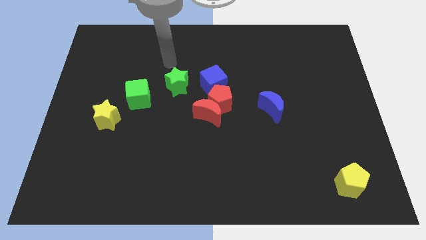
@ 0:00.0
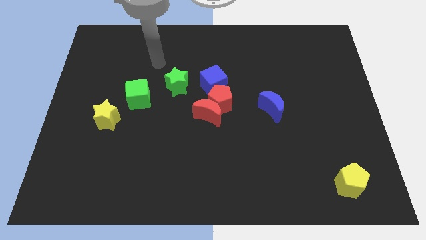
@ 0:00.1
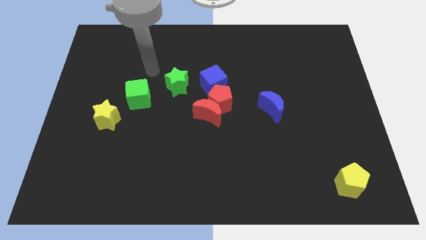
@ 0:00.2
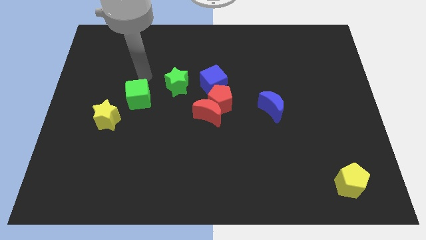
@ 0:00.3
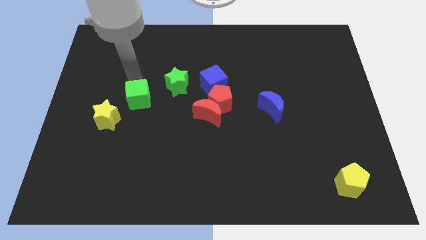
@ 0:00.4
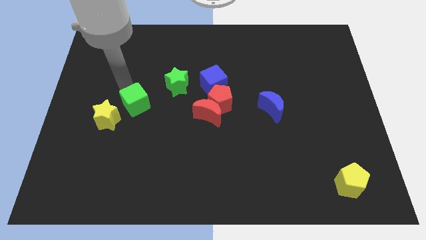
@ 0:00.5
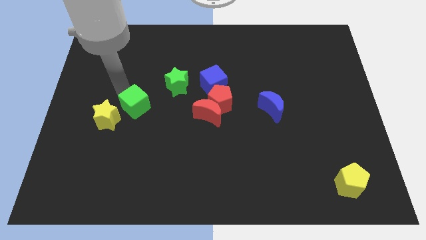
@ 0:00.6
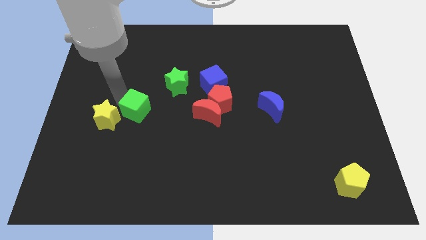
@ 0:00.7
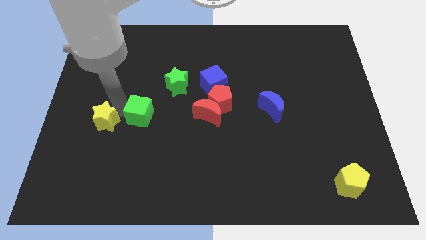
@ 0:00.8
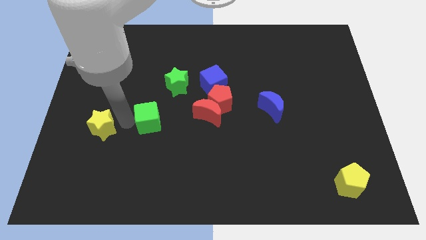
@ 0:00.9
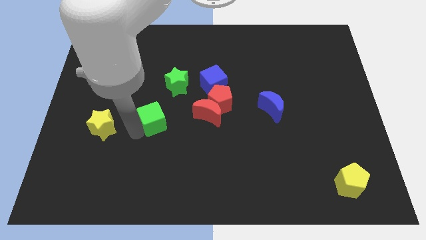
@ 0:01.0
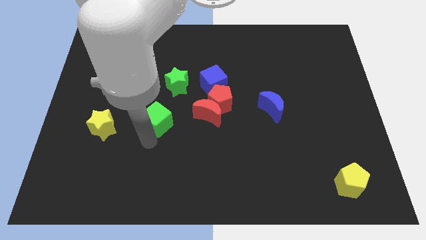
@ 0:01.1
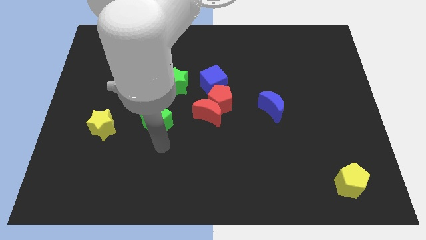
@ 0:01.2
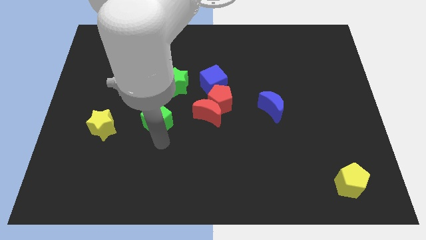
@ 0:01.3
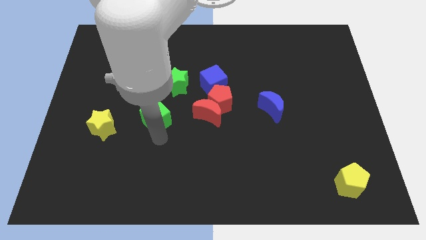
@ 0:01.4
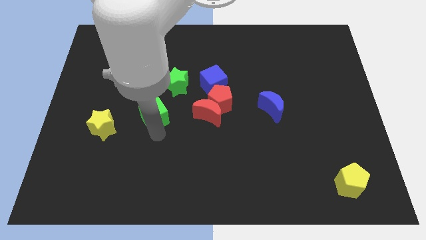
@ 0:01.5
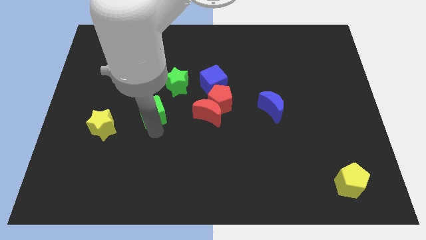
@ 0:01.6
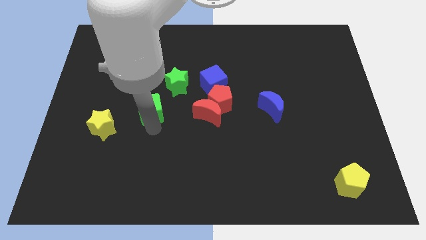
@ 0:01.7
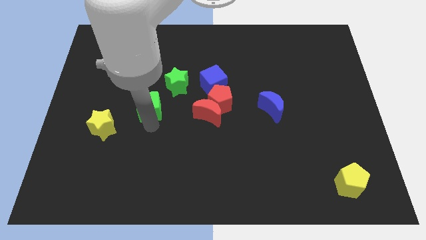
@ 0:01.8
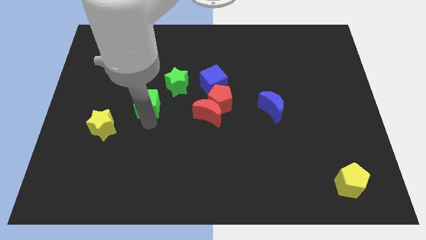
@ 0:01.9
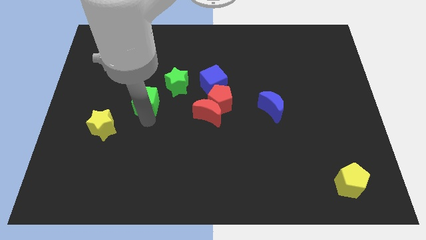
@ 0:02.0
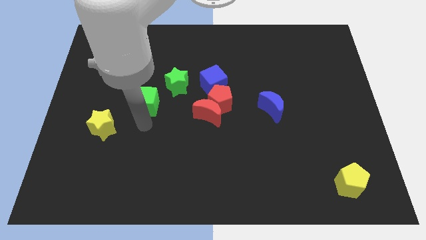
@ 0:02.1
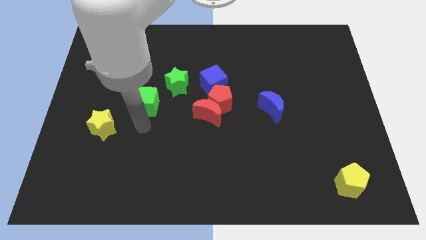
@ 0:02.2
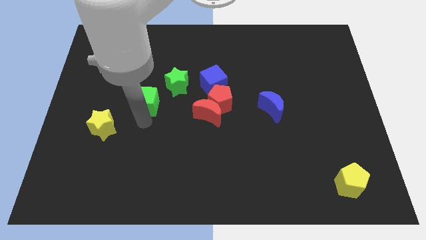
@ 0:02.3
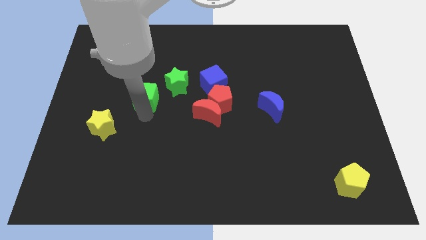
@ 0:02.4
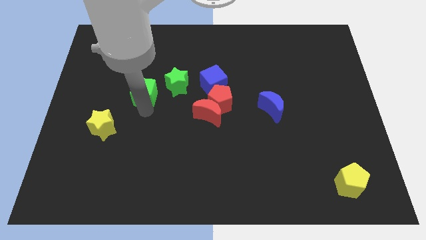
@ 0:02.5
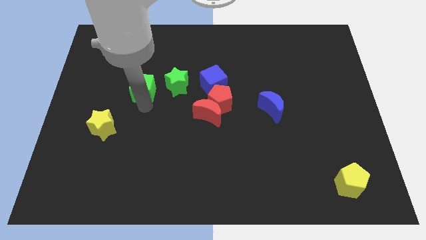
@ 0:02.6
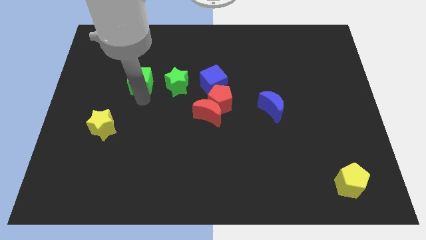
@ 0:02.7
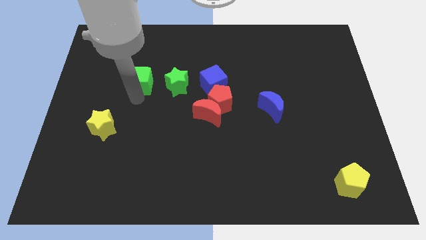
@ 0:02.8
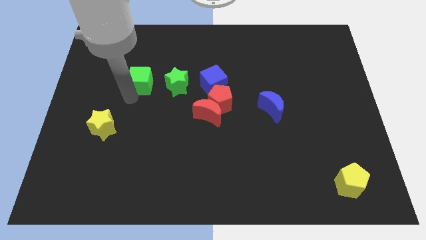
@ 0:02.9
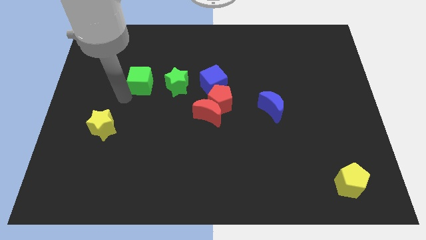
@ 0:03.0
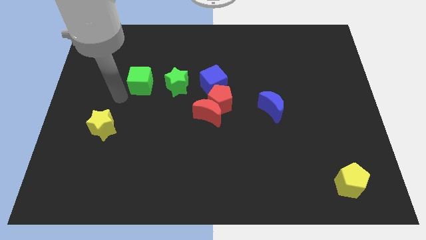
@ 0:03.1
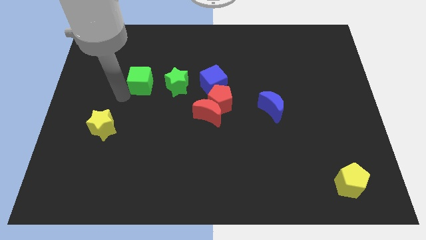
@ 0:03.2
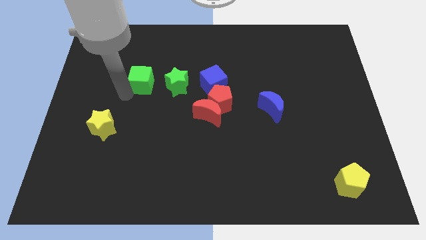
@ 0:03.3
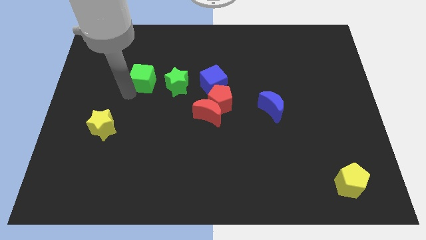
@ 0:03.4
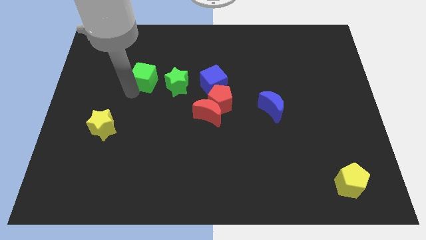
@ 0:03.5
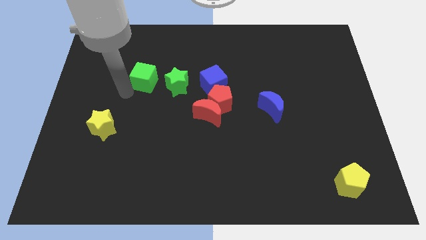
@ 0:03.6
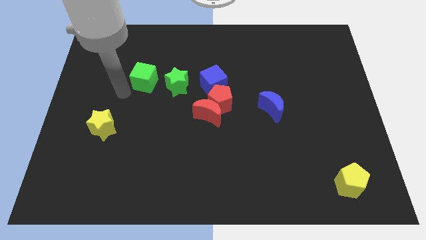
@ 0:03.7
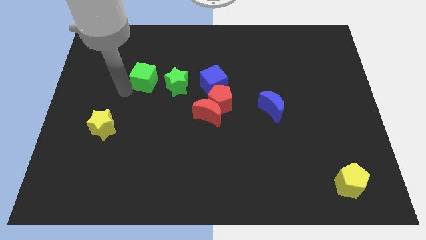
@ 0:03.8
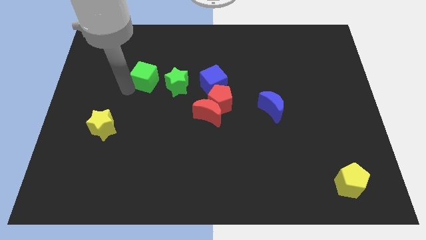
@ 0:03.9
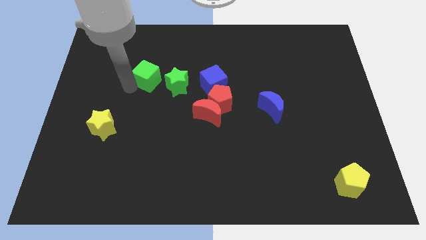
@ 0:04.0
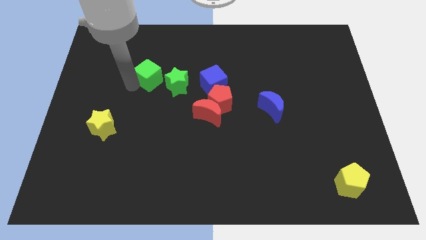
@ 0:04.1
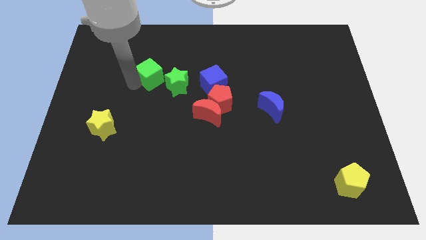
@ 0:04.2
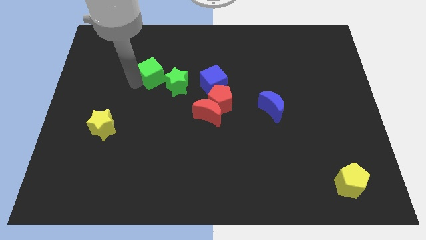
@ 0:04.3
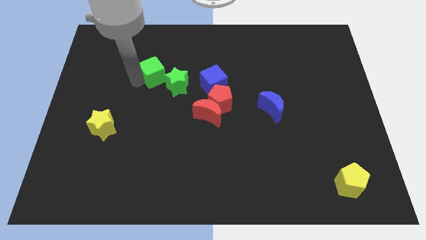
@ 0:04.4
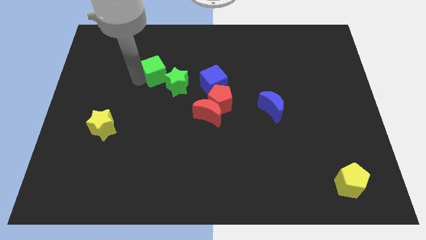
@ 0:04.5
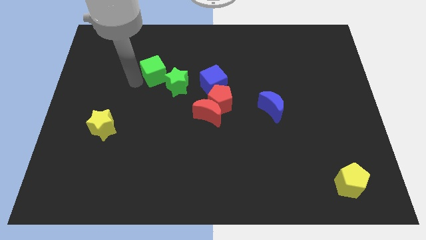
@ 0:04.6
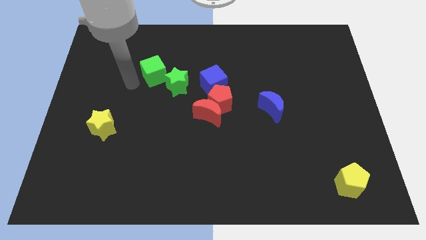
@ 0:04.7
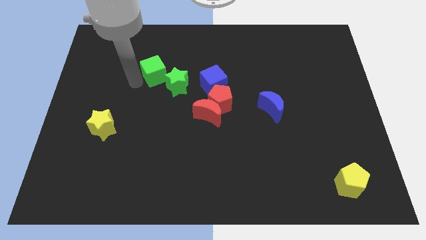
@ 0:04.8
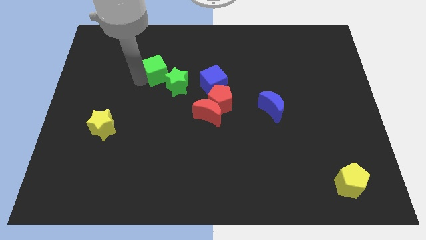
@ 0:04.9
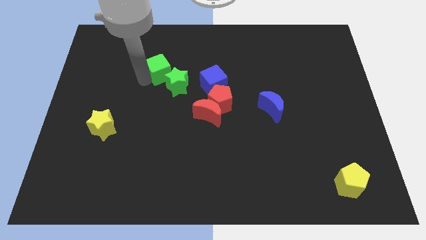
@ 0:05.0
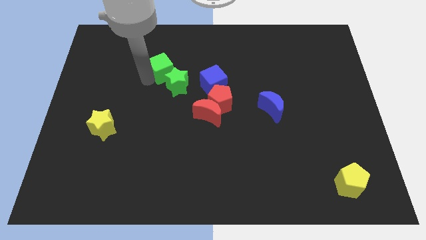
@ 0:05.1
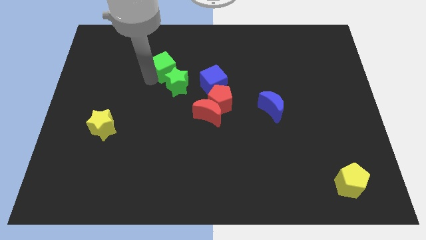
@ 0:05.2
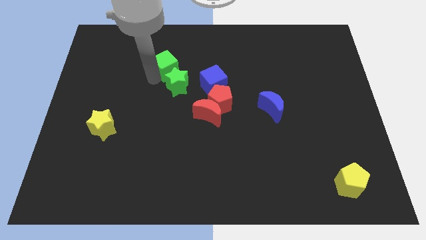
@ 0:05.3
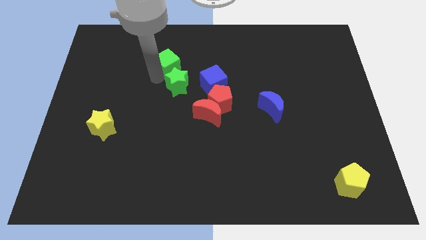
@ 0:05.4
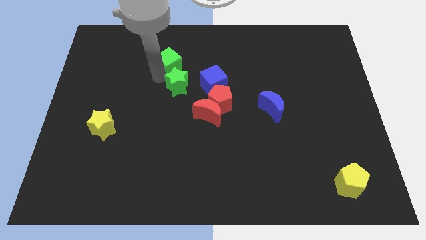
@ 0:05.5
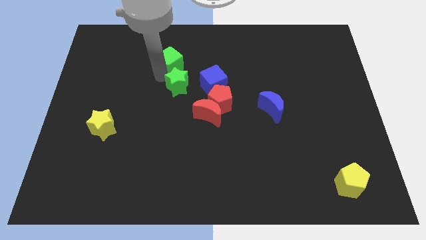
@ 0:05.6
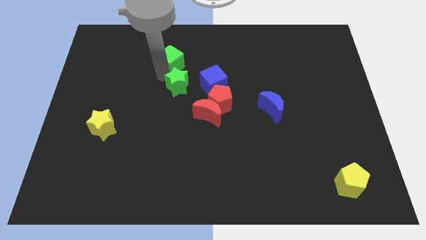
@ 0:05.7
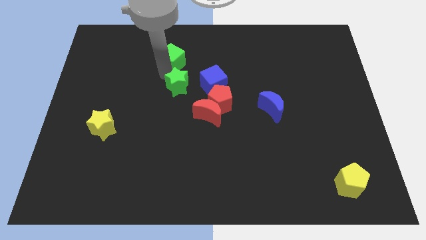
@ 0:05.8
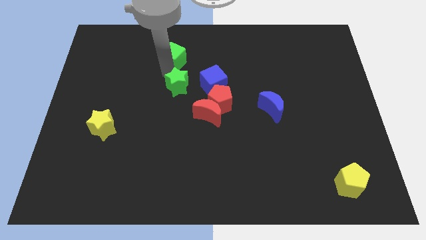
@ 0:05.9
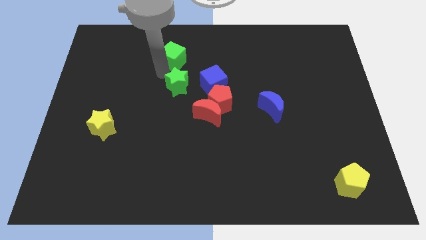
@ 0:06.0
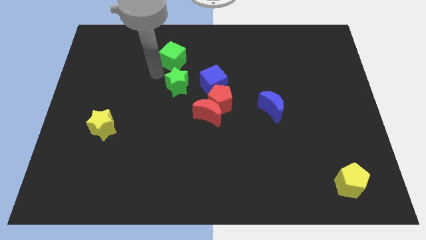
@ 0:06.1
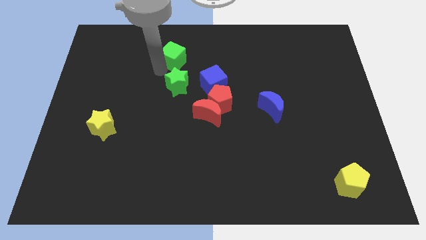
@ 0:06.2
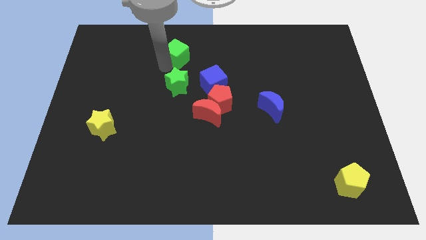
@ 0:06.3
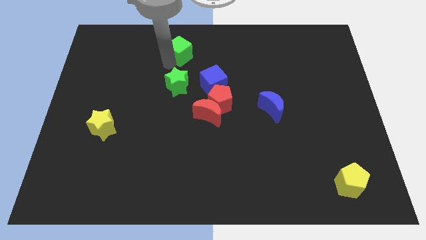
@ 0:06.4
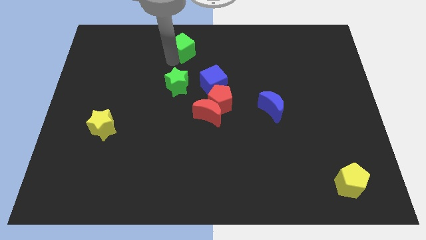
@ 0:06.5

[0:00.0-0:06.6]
put the green cube to the top side
